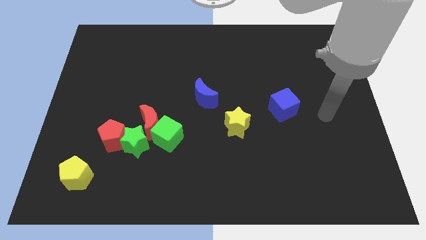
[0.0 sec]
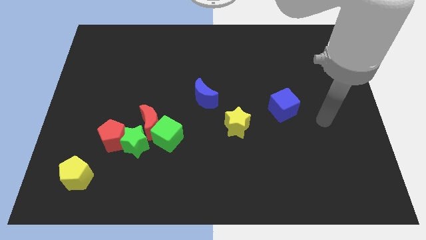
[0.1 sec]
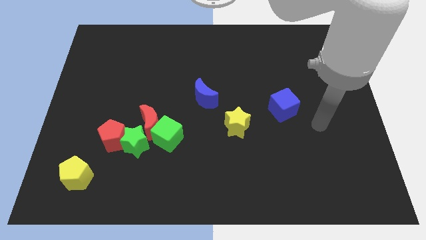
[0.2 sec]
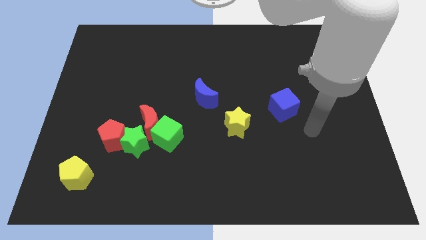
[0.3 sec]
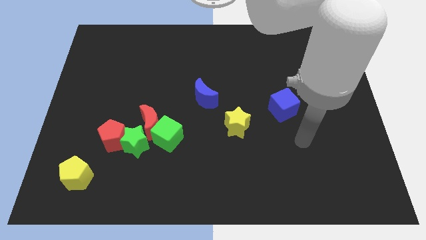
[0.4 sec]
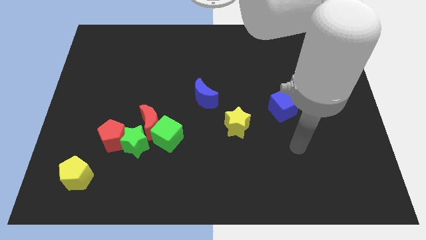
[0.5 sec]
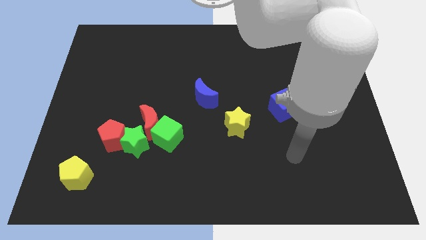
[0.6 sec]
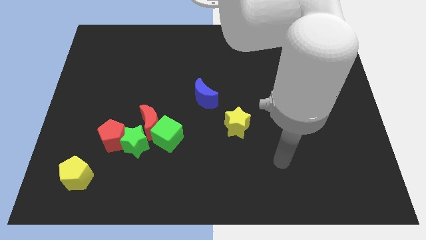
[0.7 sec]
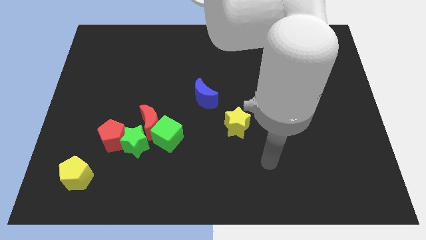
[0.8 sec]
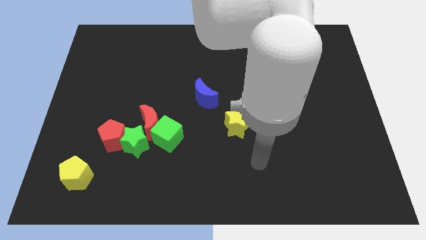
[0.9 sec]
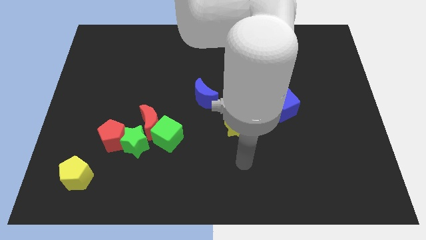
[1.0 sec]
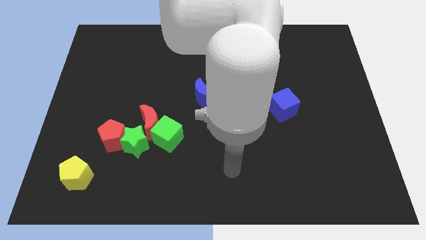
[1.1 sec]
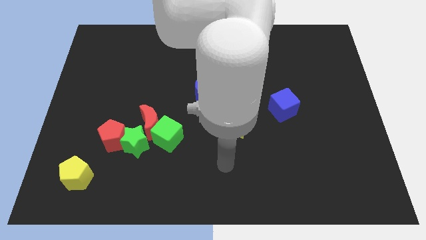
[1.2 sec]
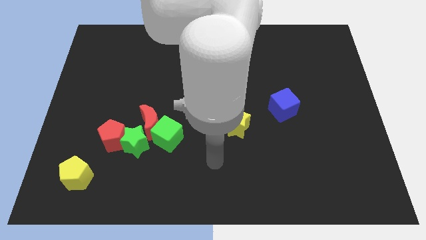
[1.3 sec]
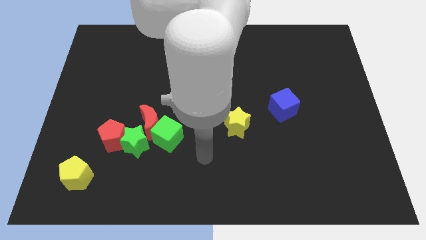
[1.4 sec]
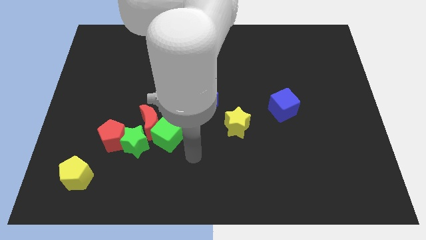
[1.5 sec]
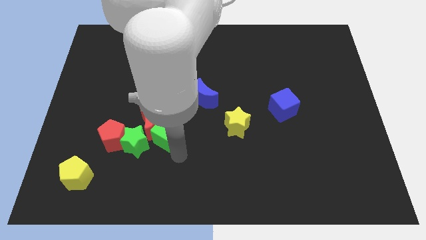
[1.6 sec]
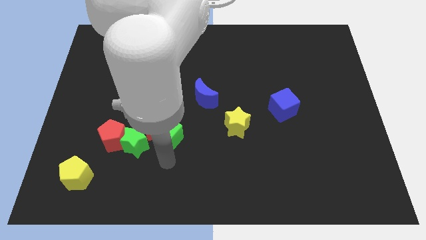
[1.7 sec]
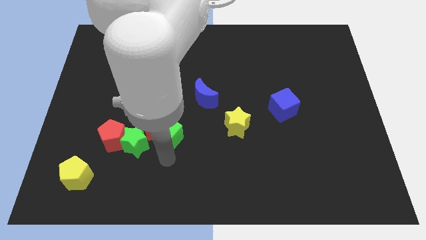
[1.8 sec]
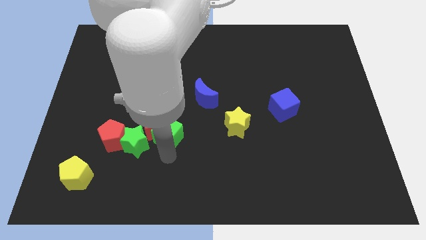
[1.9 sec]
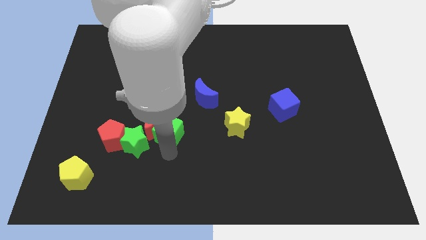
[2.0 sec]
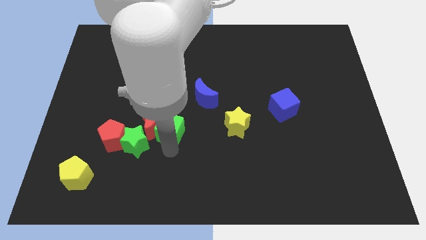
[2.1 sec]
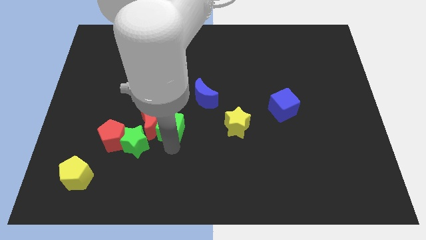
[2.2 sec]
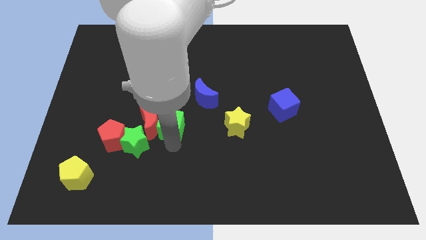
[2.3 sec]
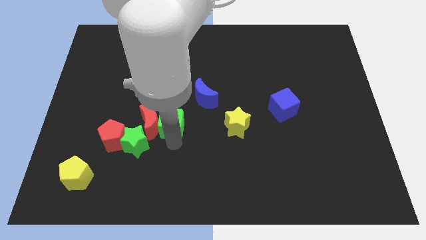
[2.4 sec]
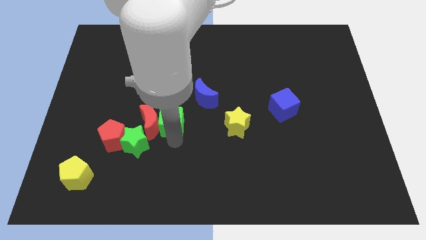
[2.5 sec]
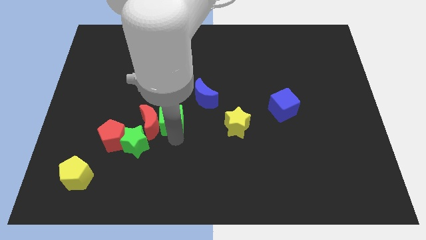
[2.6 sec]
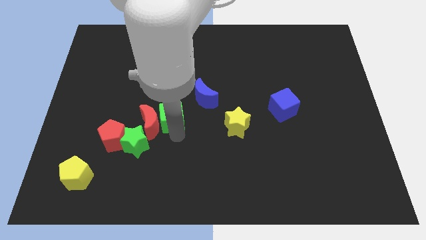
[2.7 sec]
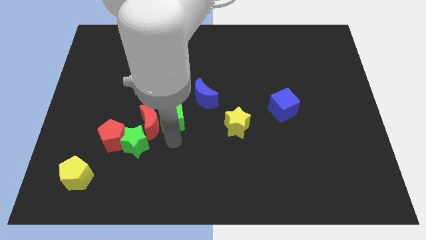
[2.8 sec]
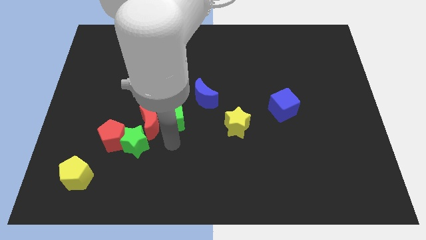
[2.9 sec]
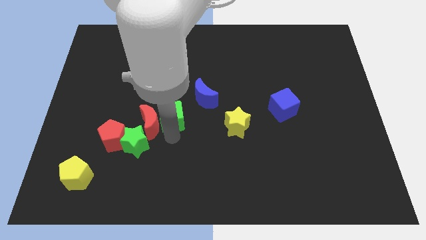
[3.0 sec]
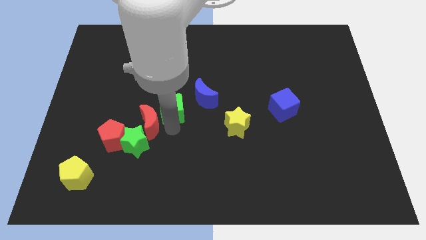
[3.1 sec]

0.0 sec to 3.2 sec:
slightly slide the green cube upwards

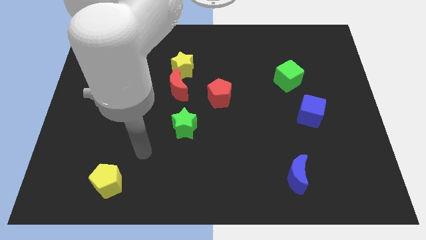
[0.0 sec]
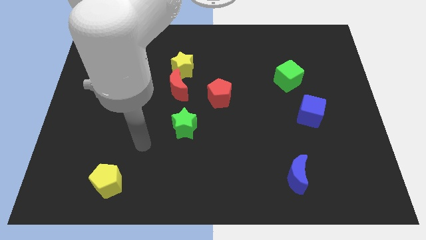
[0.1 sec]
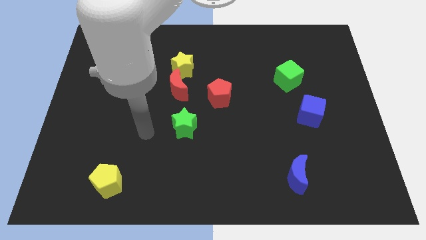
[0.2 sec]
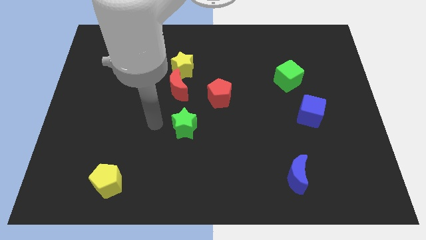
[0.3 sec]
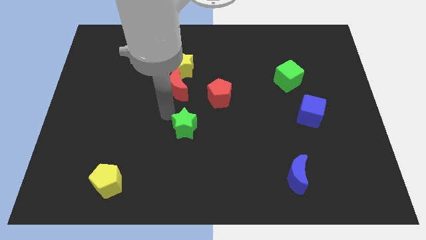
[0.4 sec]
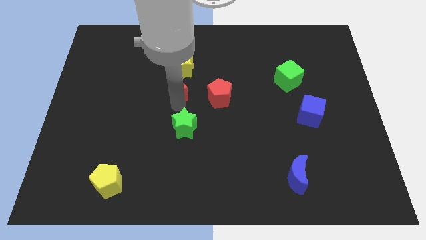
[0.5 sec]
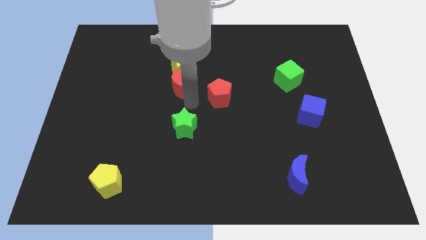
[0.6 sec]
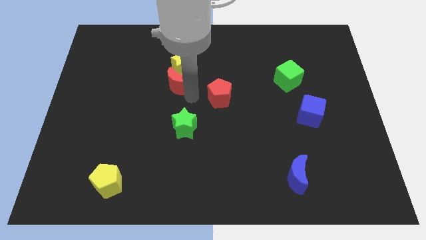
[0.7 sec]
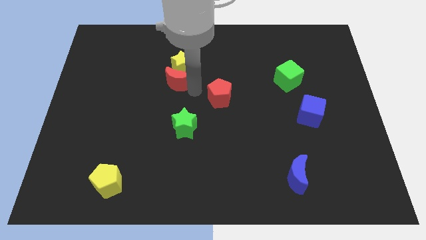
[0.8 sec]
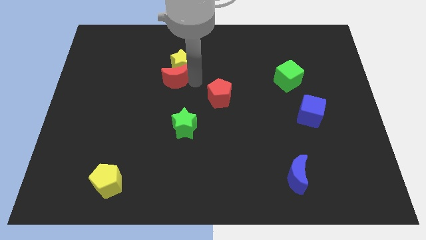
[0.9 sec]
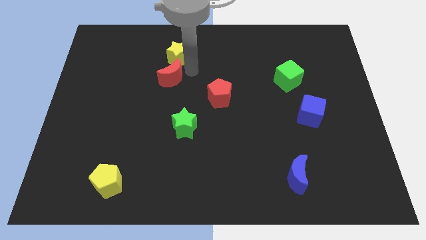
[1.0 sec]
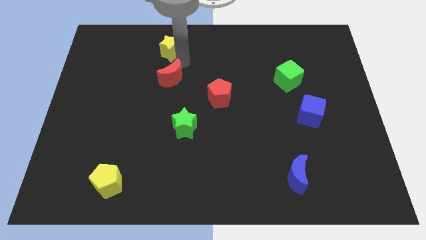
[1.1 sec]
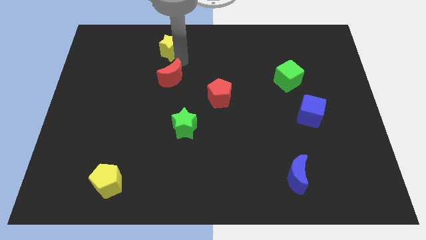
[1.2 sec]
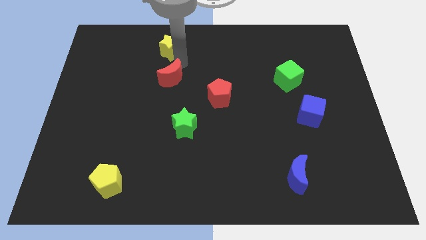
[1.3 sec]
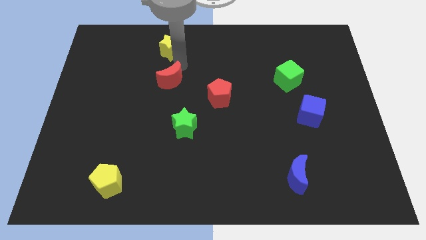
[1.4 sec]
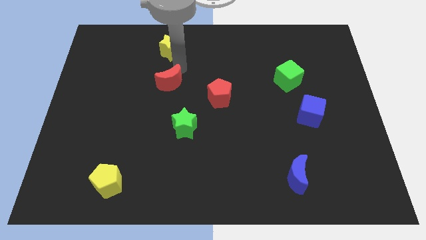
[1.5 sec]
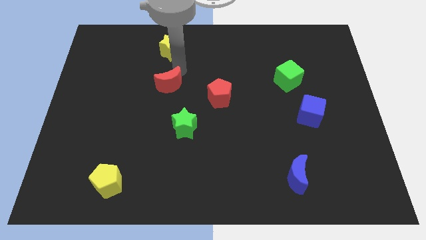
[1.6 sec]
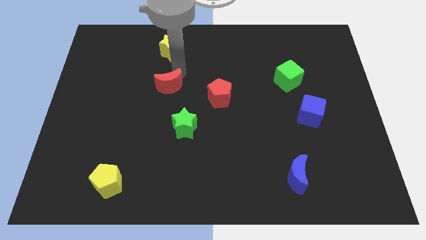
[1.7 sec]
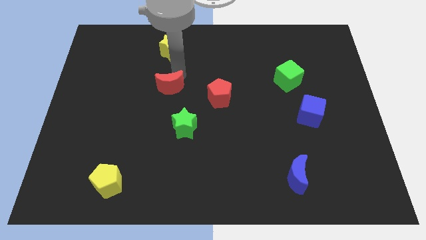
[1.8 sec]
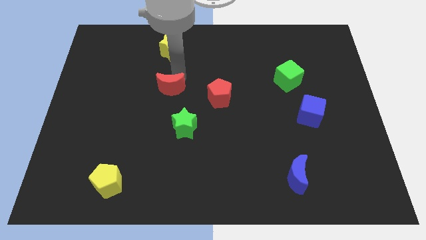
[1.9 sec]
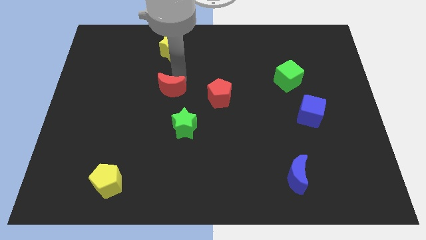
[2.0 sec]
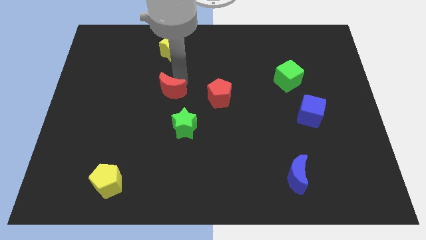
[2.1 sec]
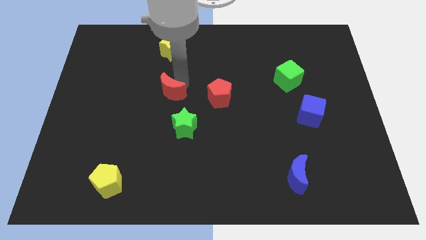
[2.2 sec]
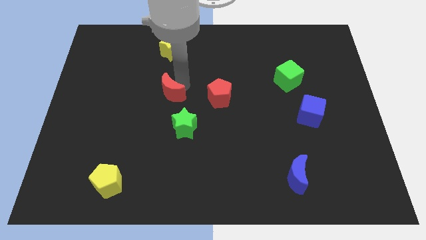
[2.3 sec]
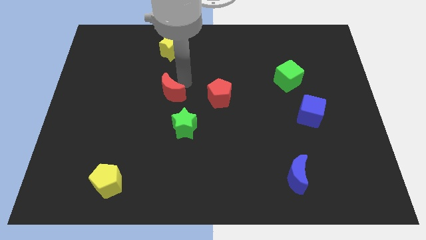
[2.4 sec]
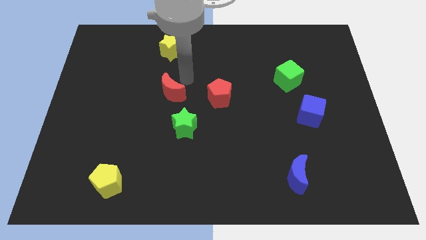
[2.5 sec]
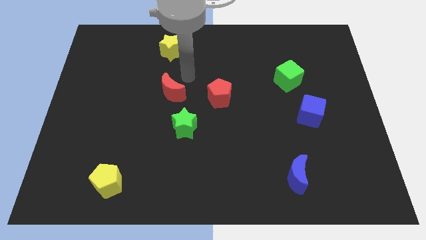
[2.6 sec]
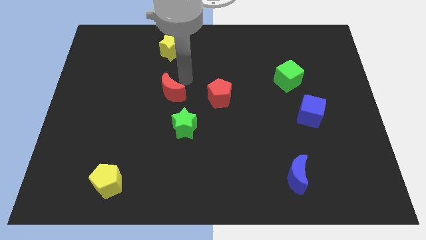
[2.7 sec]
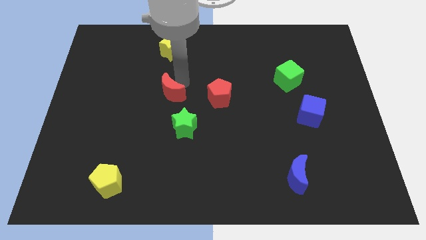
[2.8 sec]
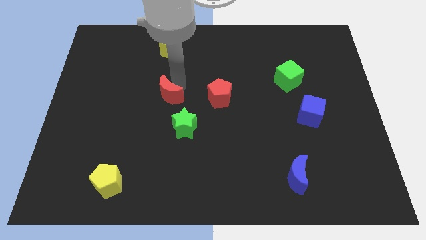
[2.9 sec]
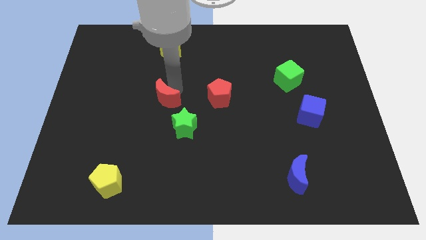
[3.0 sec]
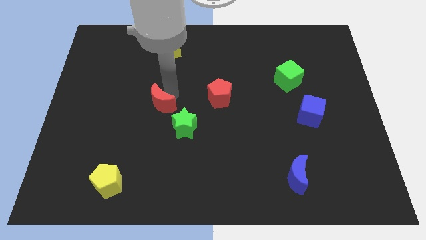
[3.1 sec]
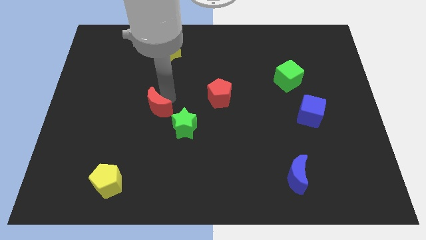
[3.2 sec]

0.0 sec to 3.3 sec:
move the red moon a little bit down and left

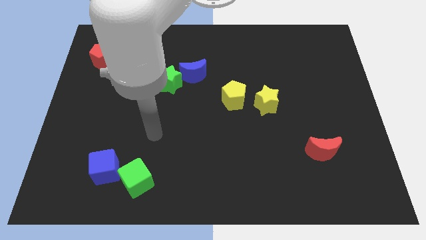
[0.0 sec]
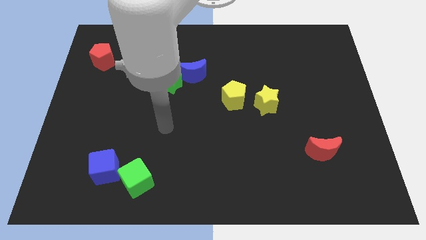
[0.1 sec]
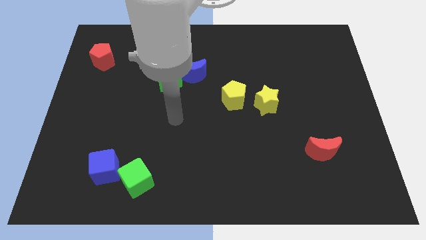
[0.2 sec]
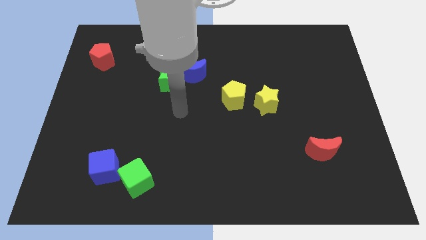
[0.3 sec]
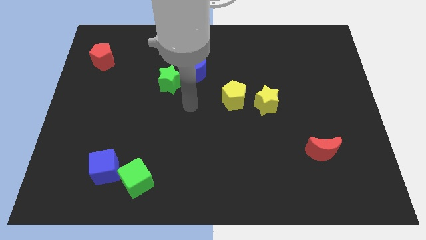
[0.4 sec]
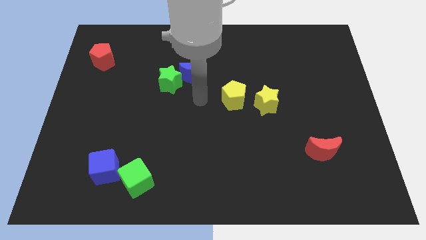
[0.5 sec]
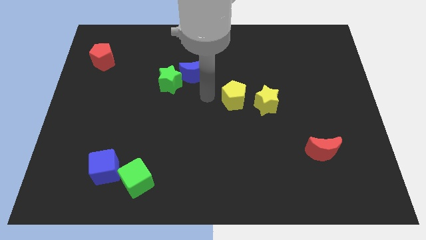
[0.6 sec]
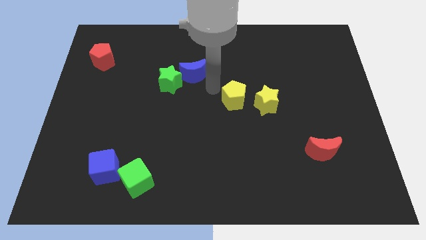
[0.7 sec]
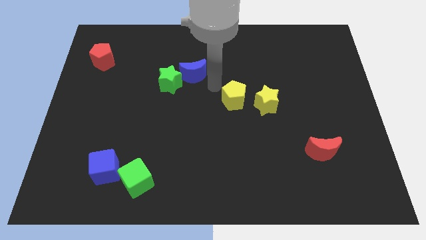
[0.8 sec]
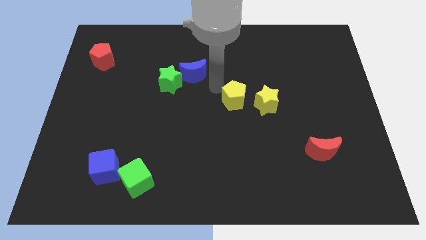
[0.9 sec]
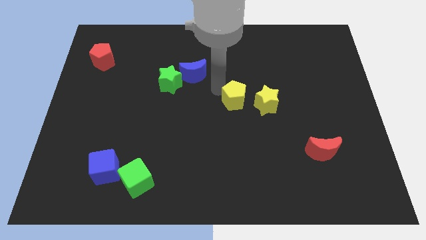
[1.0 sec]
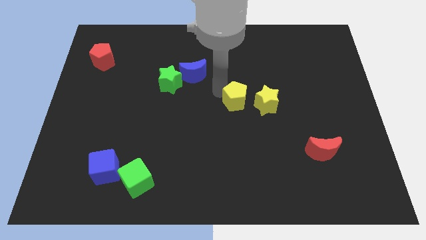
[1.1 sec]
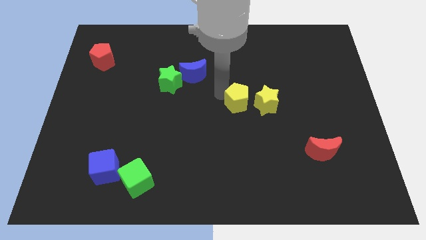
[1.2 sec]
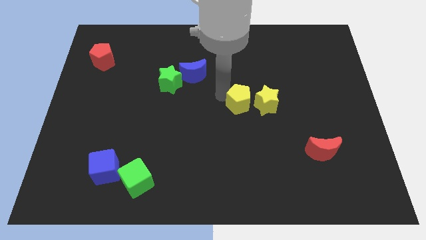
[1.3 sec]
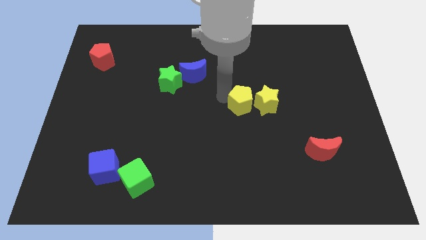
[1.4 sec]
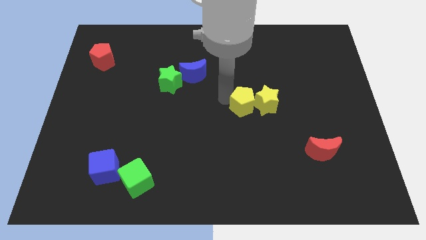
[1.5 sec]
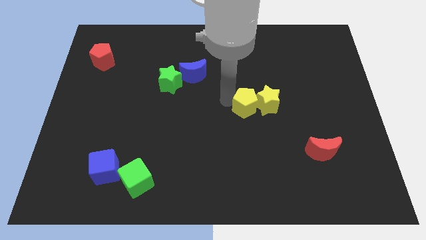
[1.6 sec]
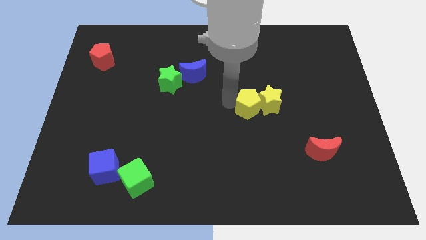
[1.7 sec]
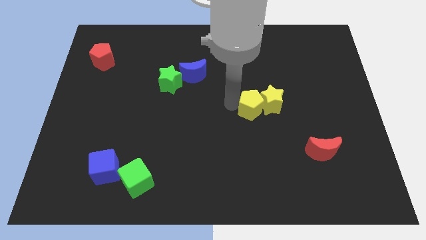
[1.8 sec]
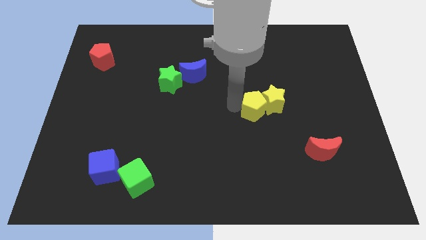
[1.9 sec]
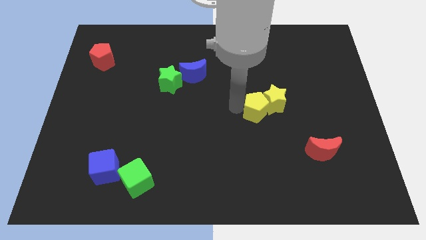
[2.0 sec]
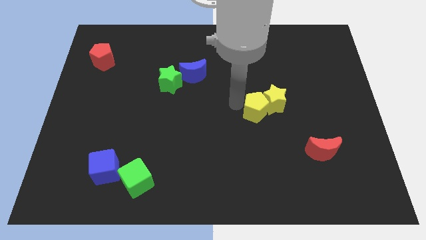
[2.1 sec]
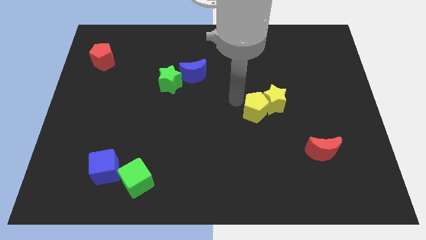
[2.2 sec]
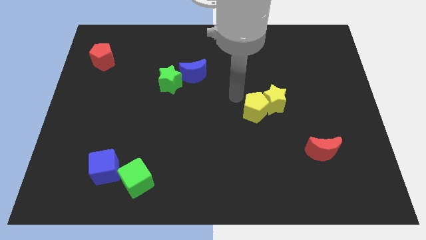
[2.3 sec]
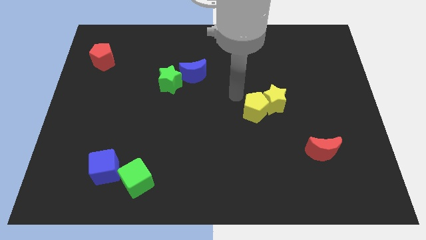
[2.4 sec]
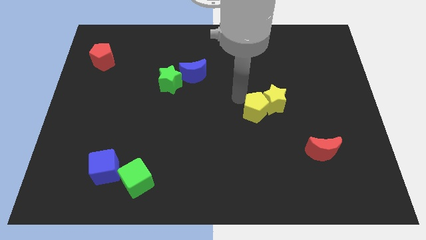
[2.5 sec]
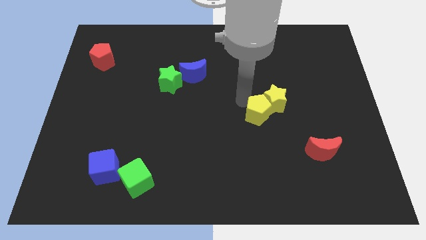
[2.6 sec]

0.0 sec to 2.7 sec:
push the yellow pentagon down and then to the right a bit
